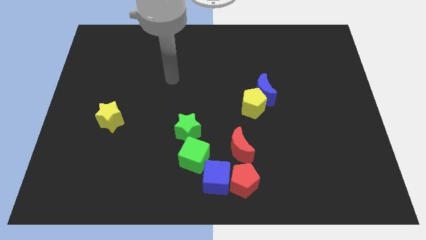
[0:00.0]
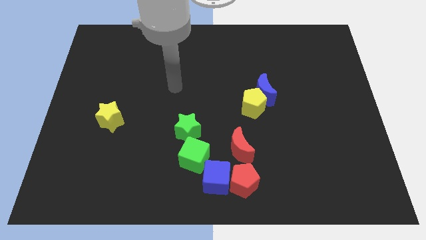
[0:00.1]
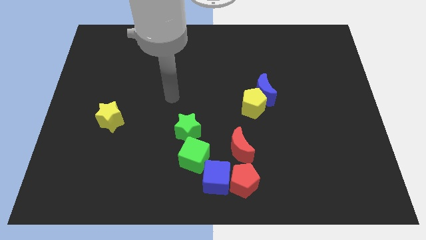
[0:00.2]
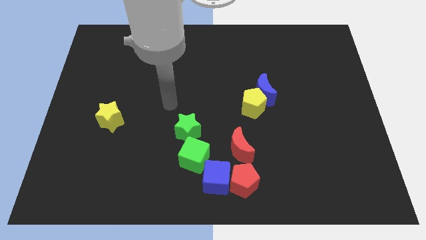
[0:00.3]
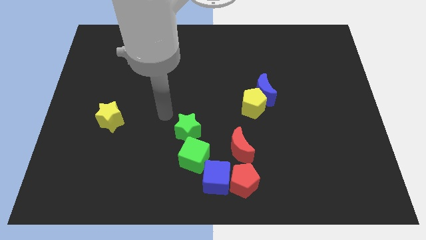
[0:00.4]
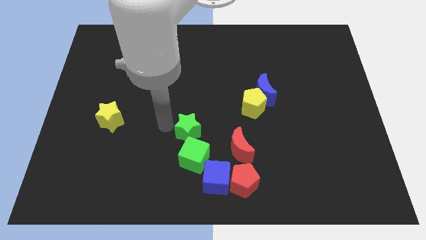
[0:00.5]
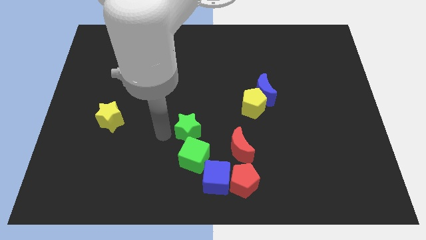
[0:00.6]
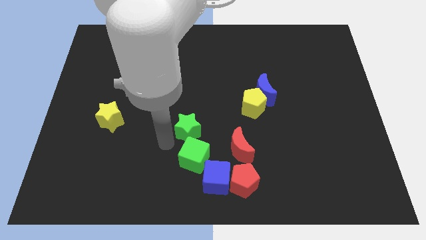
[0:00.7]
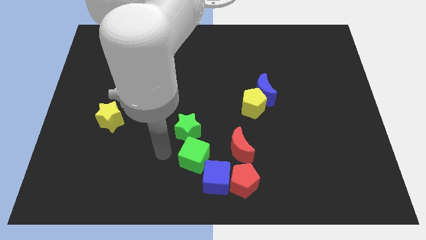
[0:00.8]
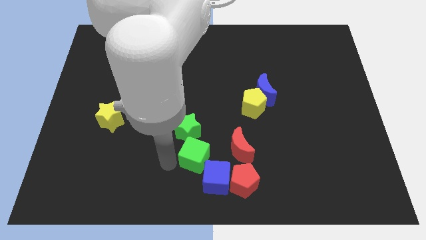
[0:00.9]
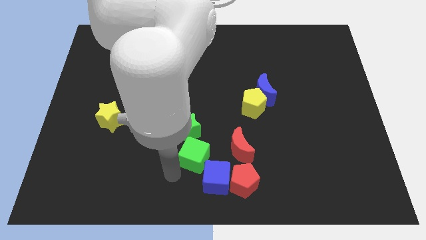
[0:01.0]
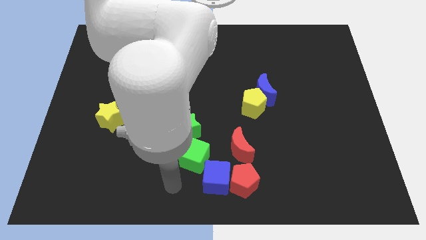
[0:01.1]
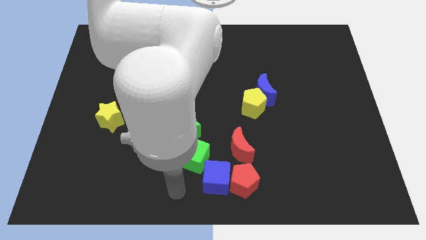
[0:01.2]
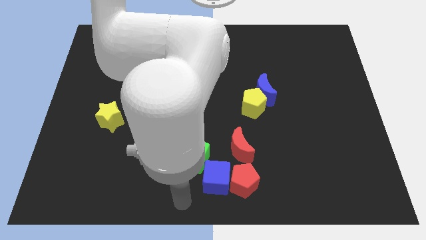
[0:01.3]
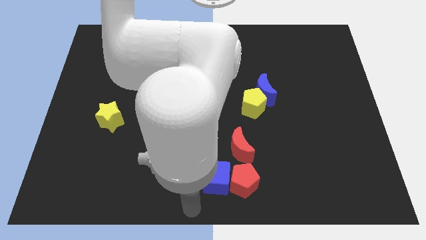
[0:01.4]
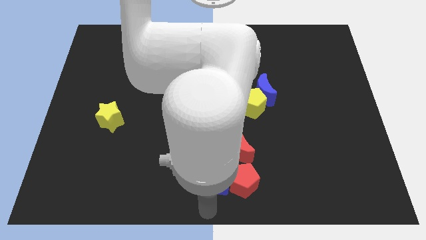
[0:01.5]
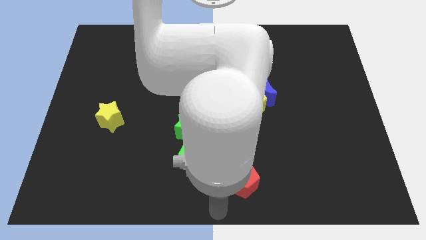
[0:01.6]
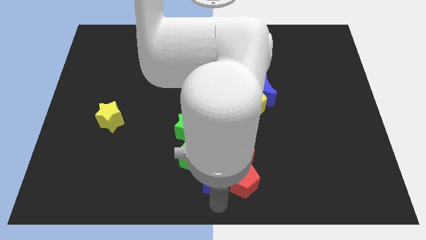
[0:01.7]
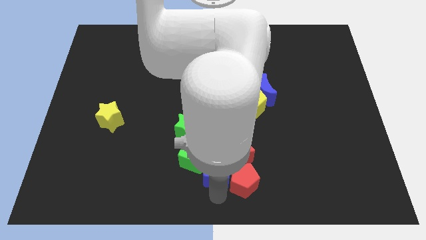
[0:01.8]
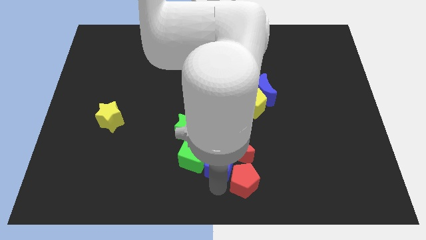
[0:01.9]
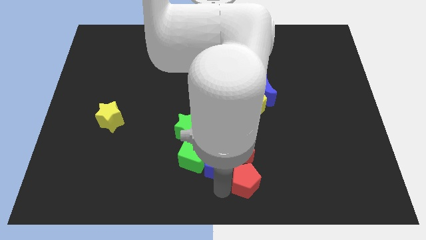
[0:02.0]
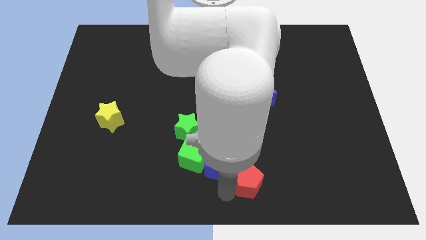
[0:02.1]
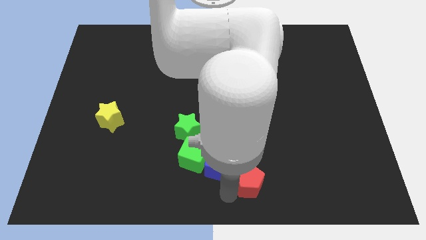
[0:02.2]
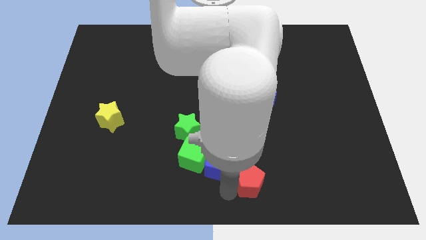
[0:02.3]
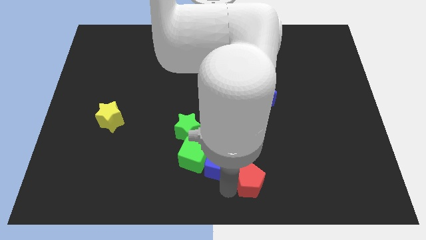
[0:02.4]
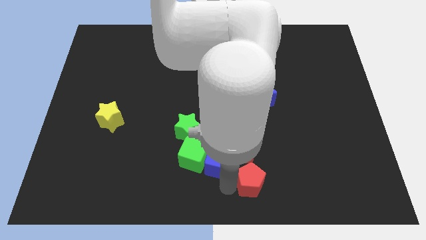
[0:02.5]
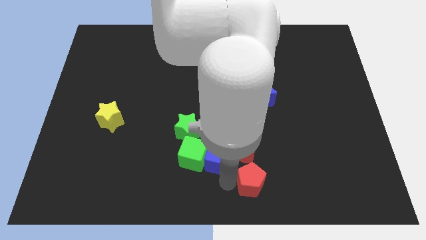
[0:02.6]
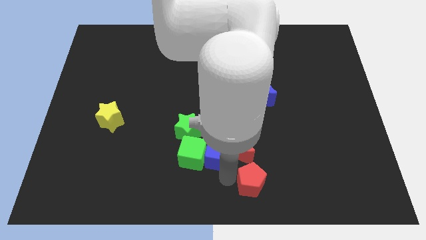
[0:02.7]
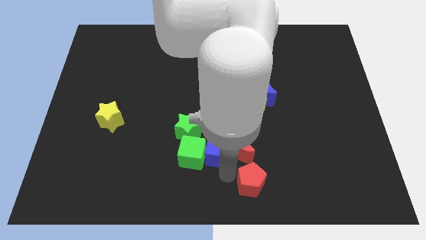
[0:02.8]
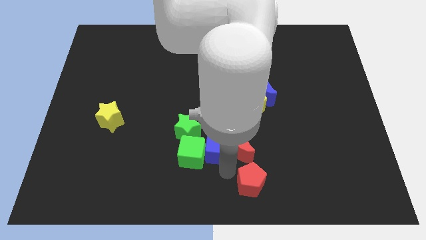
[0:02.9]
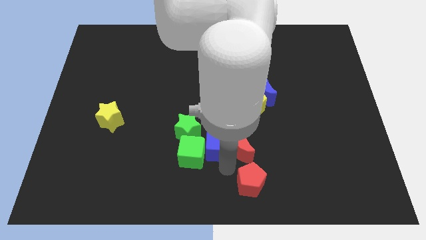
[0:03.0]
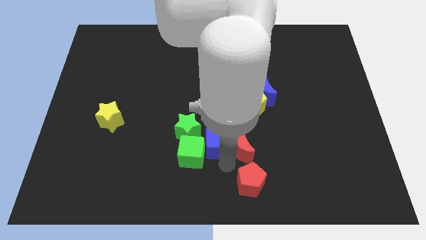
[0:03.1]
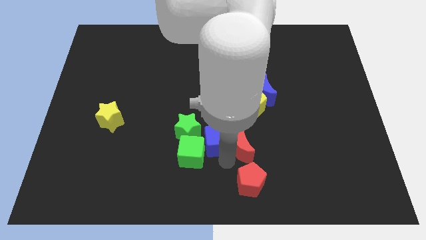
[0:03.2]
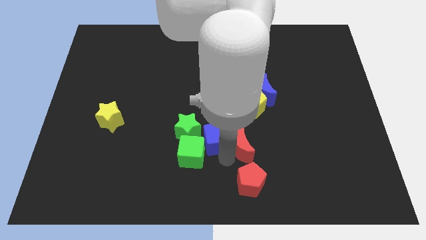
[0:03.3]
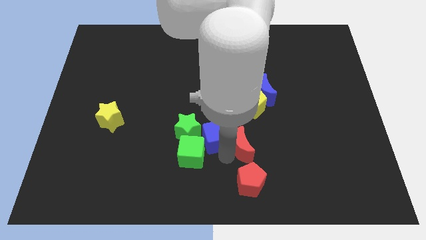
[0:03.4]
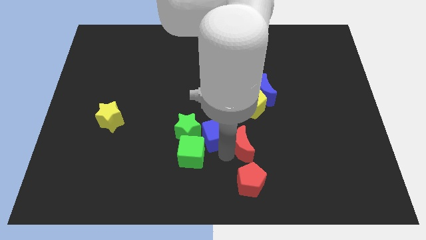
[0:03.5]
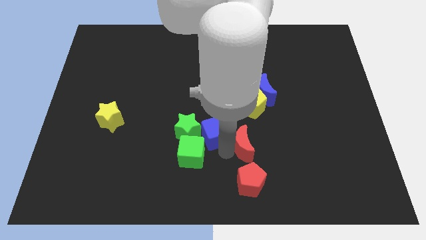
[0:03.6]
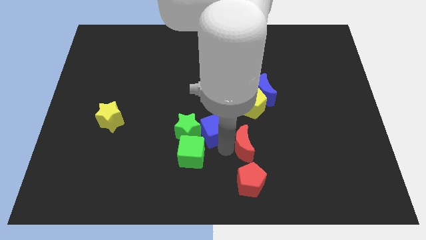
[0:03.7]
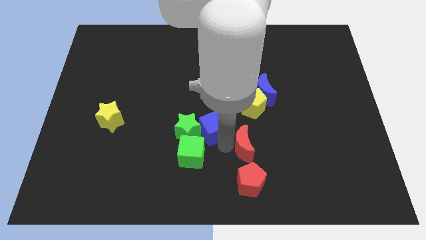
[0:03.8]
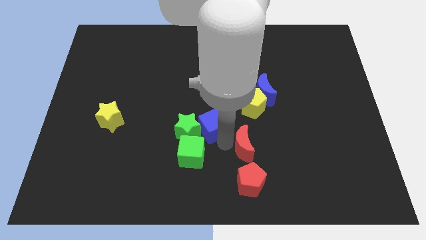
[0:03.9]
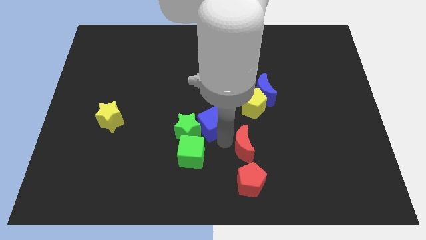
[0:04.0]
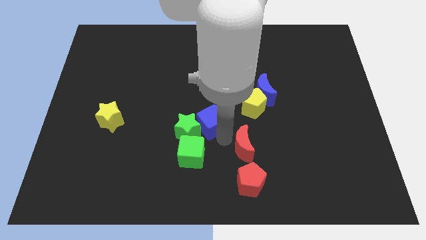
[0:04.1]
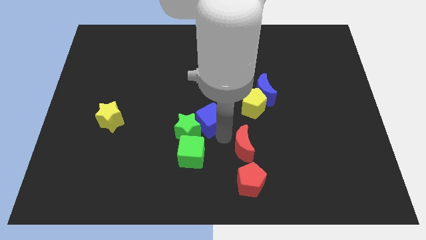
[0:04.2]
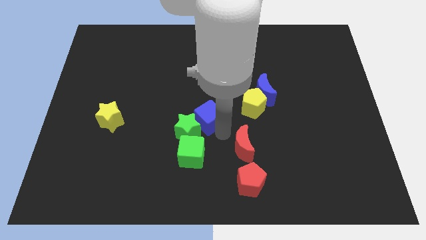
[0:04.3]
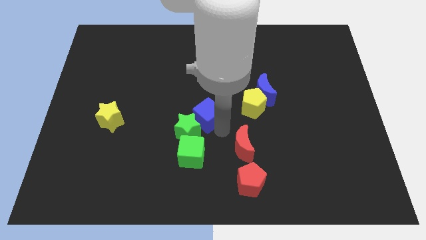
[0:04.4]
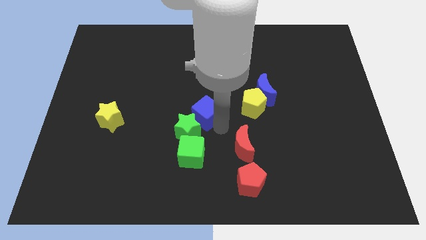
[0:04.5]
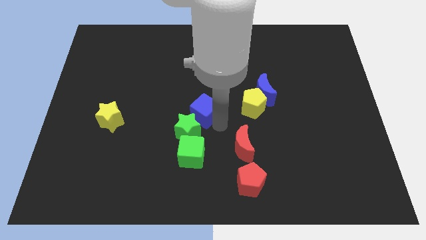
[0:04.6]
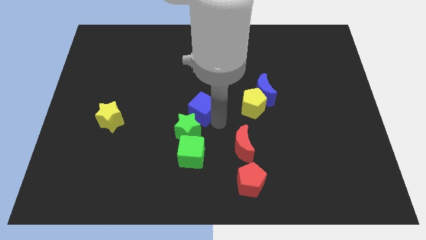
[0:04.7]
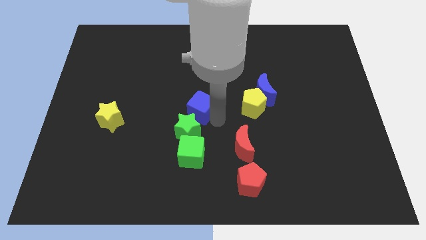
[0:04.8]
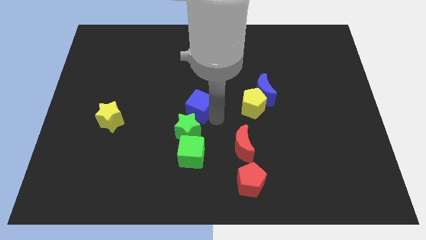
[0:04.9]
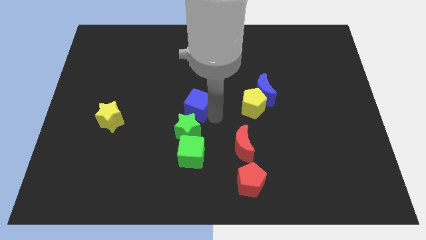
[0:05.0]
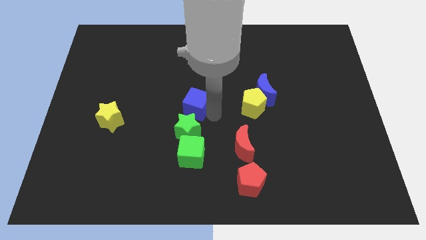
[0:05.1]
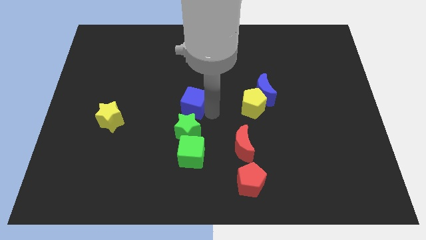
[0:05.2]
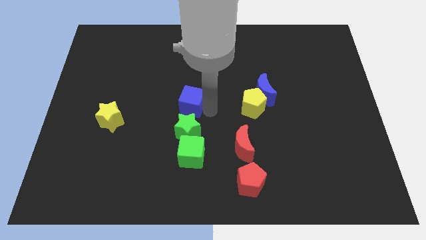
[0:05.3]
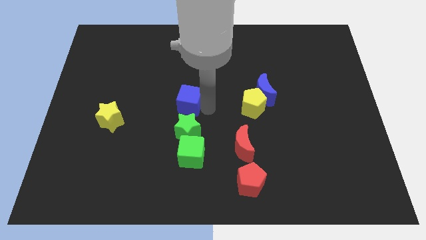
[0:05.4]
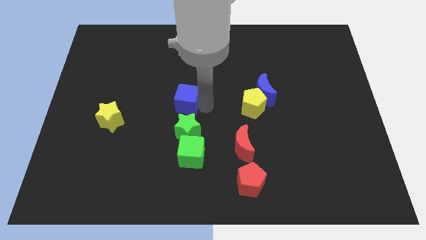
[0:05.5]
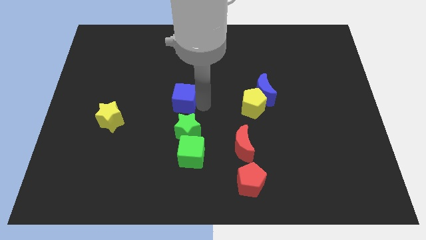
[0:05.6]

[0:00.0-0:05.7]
slide the blue cube to the top left of the green star

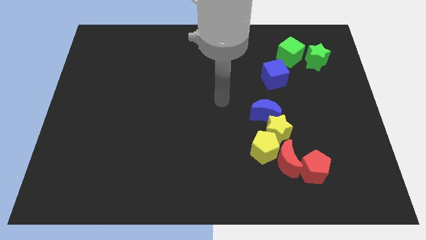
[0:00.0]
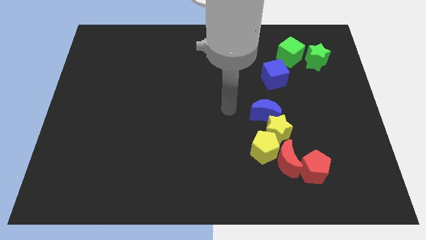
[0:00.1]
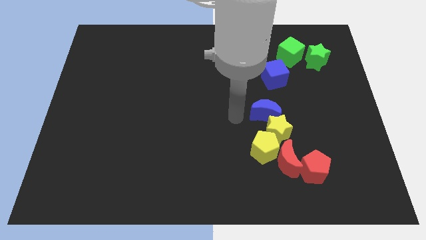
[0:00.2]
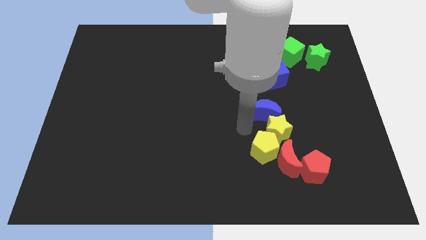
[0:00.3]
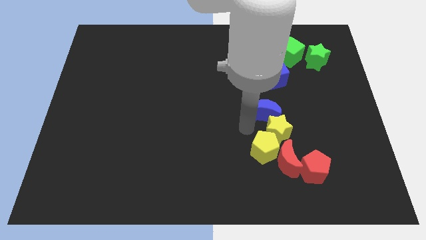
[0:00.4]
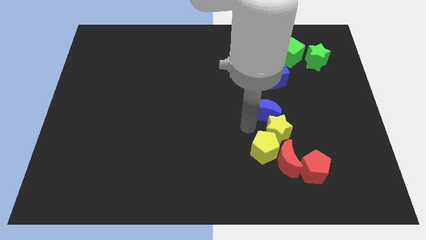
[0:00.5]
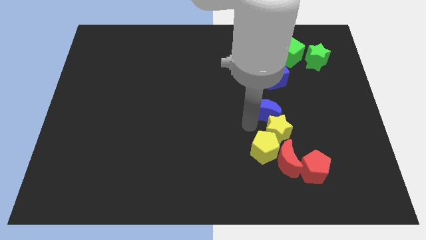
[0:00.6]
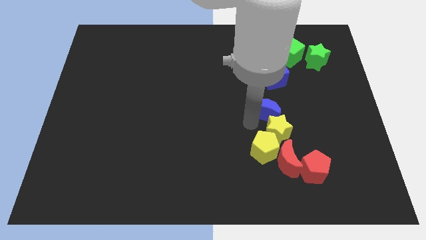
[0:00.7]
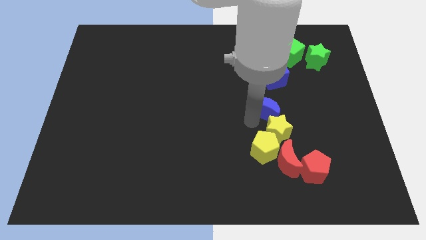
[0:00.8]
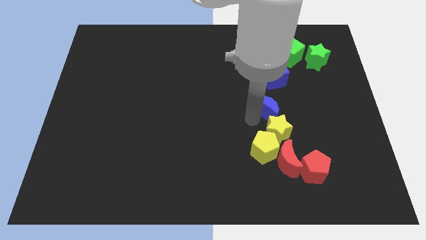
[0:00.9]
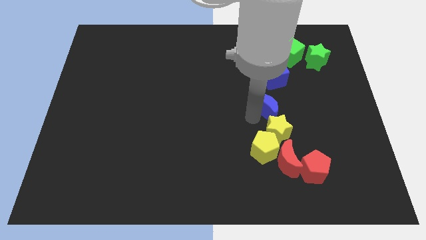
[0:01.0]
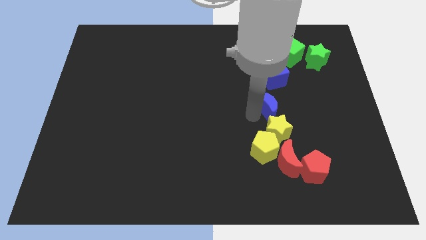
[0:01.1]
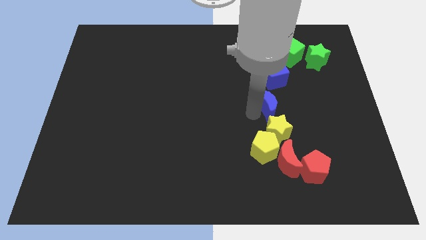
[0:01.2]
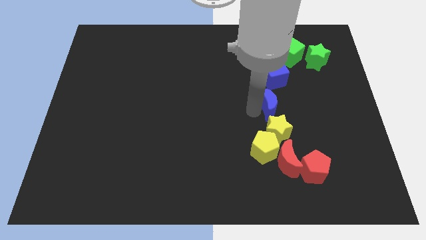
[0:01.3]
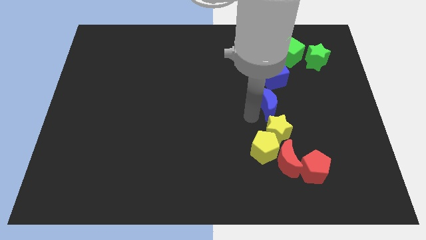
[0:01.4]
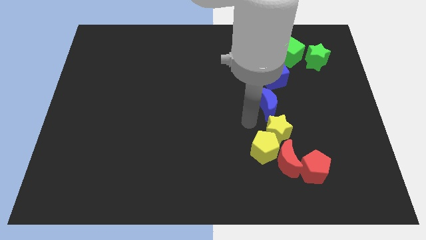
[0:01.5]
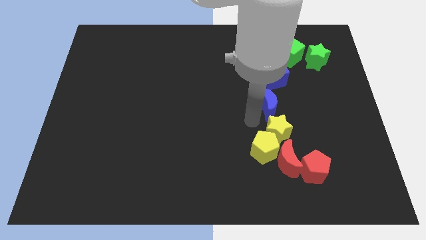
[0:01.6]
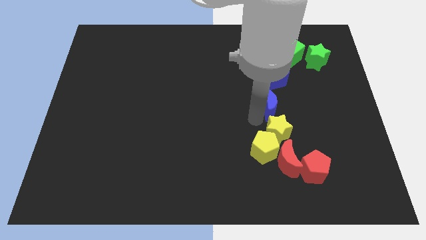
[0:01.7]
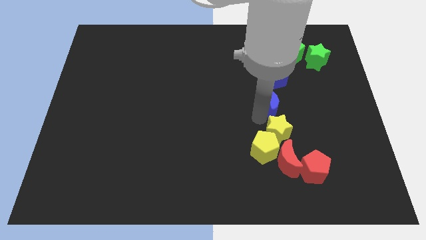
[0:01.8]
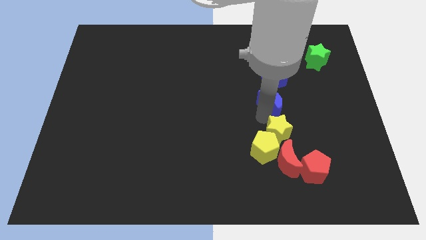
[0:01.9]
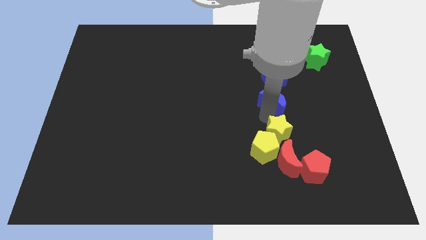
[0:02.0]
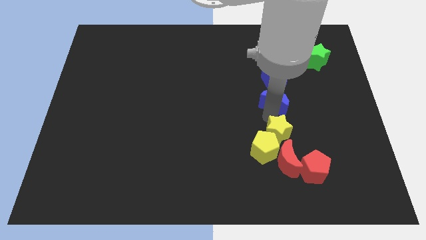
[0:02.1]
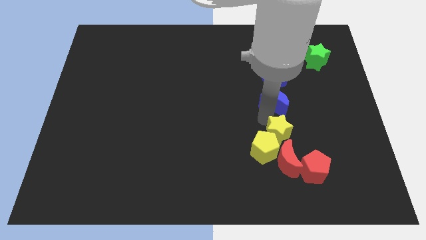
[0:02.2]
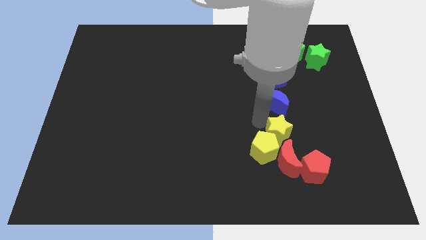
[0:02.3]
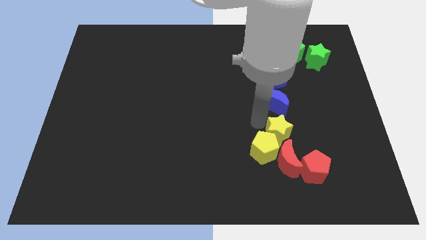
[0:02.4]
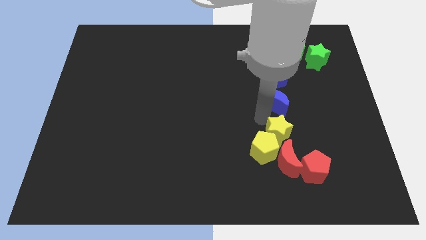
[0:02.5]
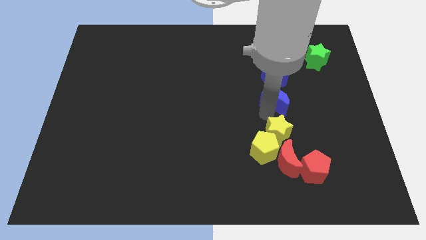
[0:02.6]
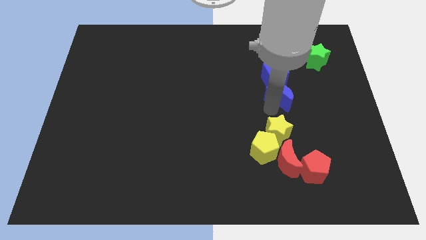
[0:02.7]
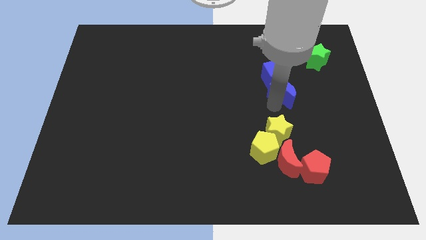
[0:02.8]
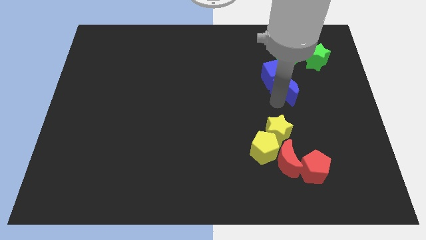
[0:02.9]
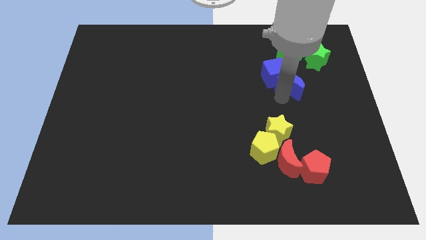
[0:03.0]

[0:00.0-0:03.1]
push the blue moon to the bottom left side of the green star
